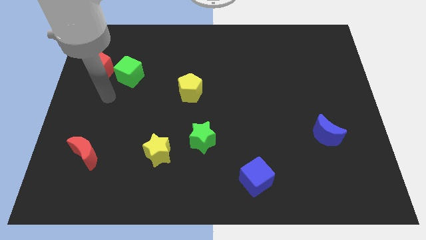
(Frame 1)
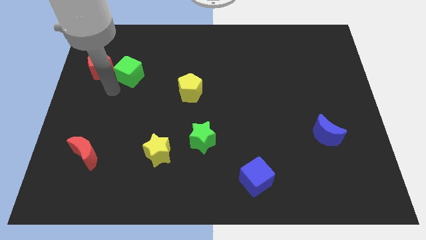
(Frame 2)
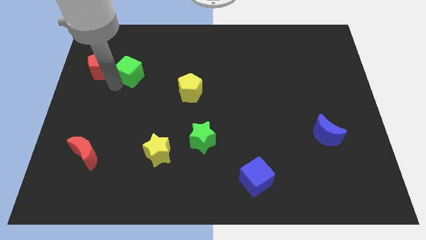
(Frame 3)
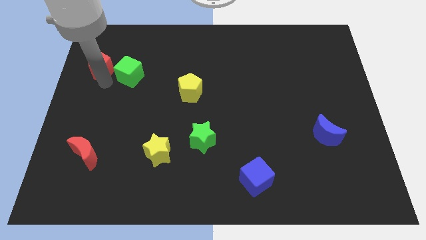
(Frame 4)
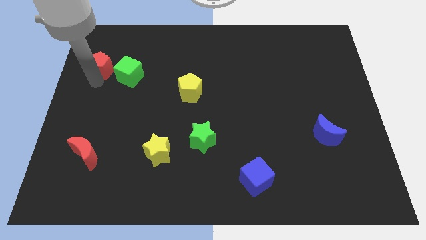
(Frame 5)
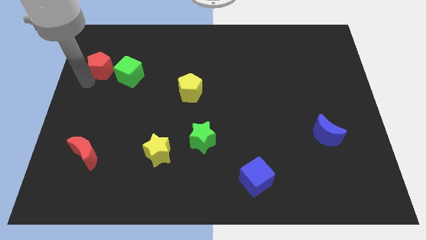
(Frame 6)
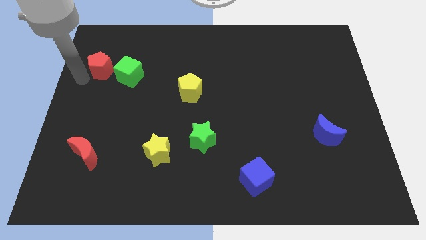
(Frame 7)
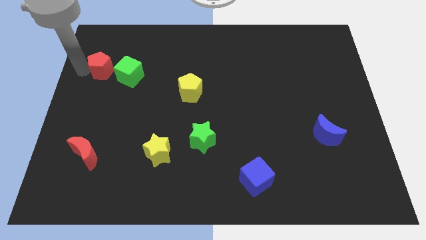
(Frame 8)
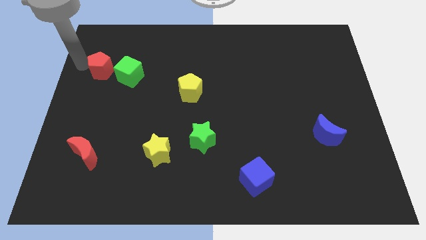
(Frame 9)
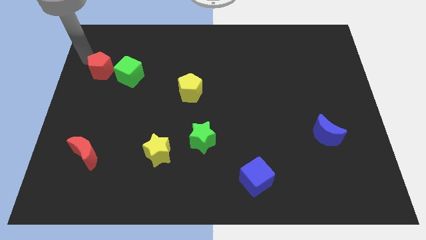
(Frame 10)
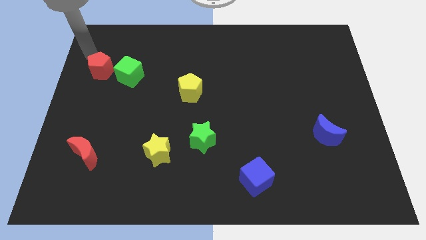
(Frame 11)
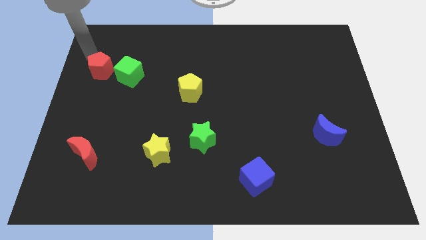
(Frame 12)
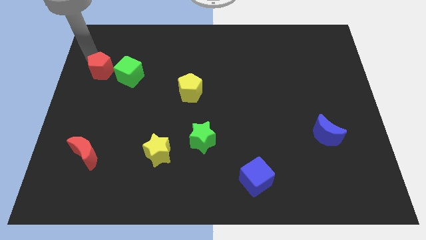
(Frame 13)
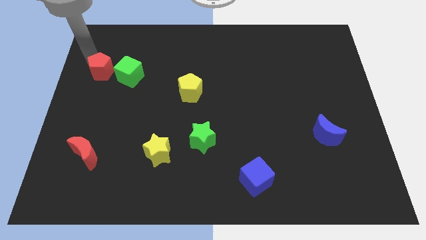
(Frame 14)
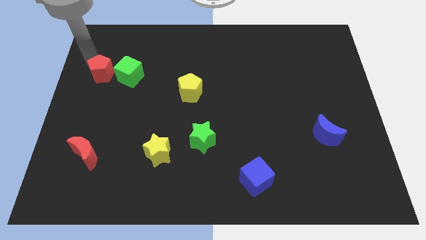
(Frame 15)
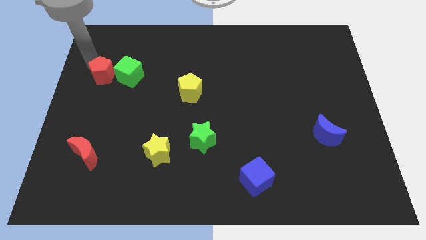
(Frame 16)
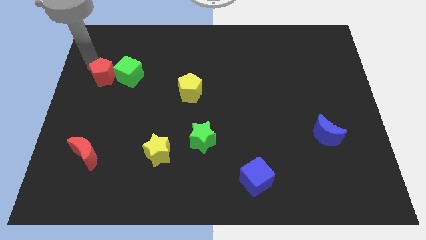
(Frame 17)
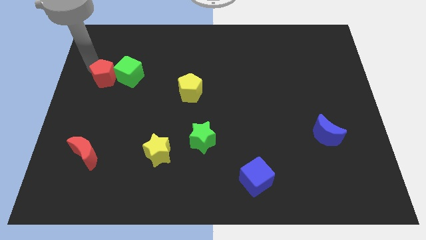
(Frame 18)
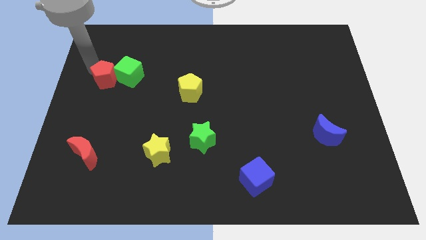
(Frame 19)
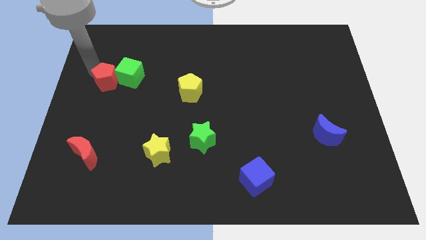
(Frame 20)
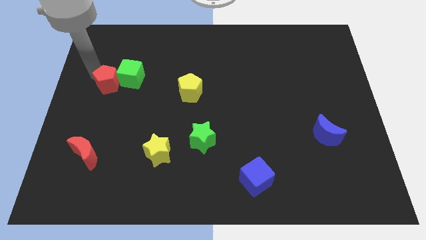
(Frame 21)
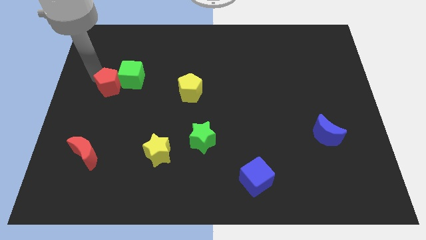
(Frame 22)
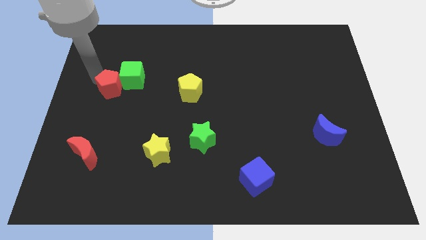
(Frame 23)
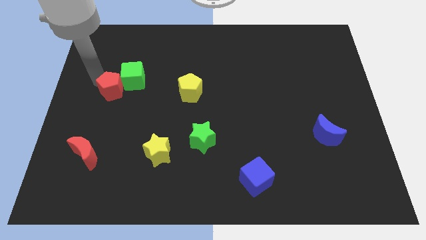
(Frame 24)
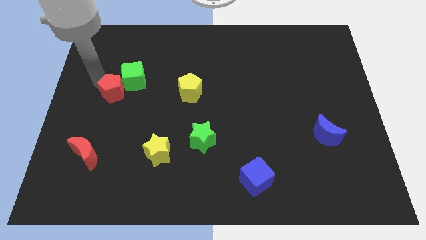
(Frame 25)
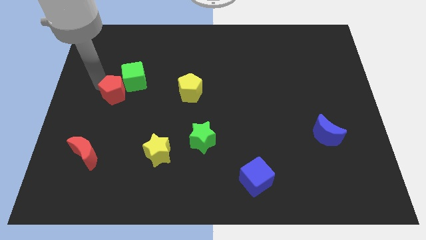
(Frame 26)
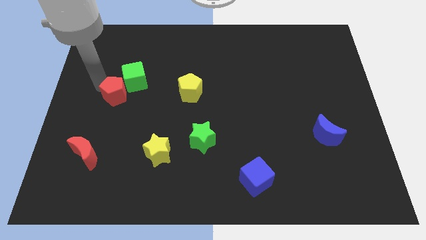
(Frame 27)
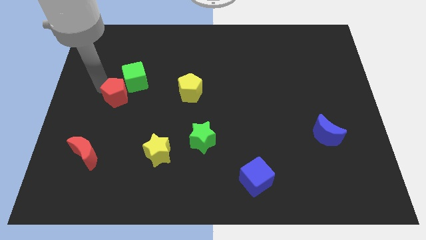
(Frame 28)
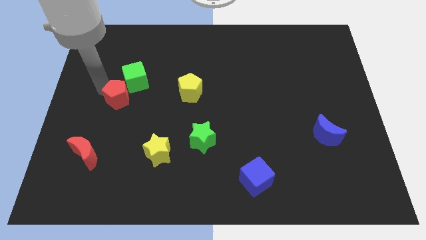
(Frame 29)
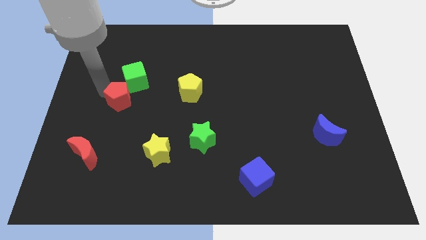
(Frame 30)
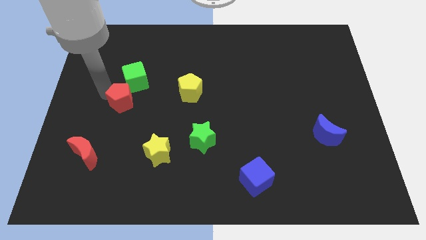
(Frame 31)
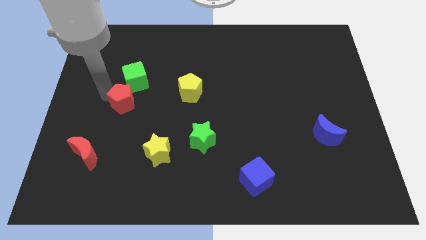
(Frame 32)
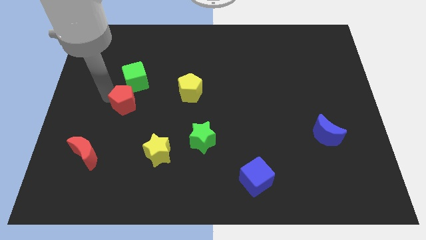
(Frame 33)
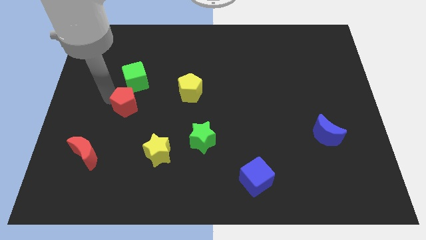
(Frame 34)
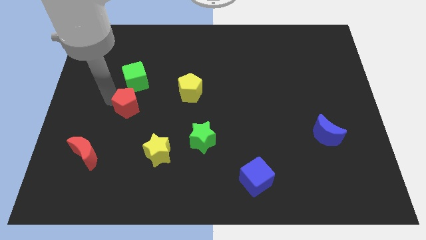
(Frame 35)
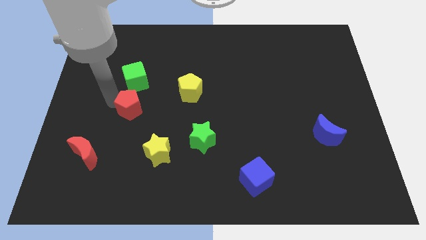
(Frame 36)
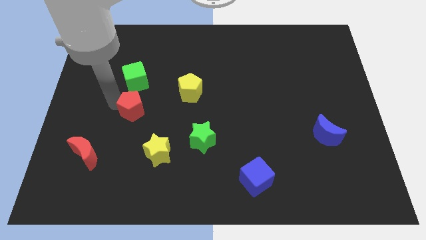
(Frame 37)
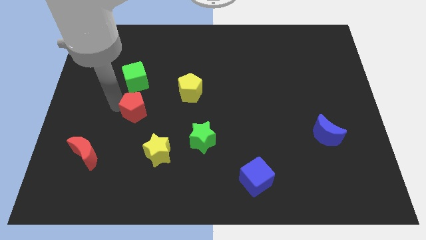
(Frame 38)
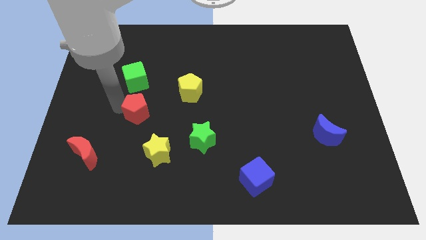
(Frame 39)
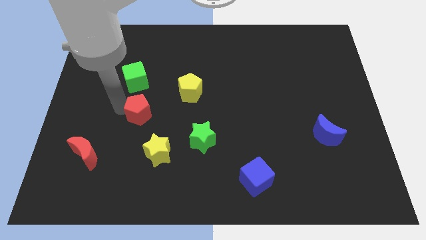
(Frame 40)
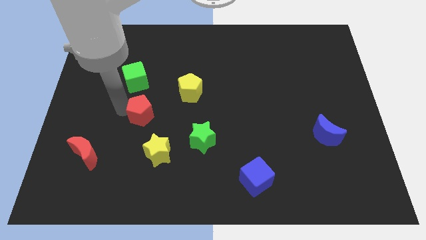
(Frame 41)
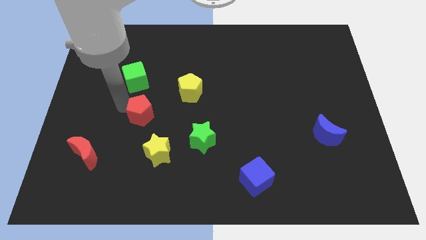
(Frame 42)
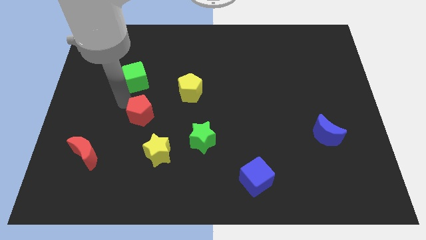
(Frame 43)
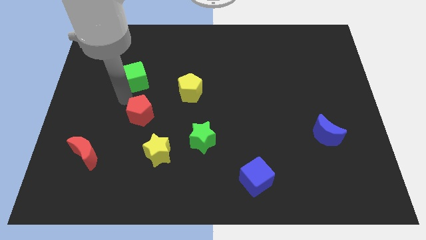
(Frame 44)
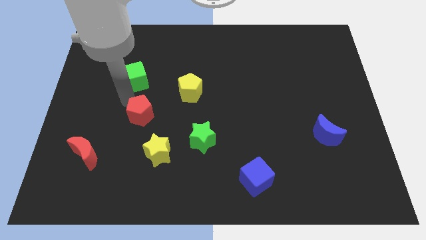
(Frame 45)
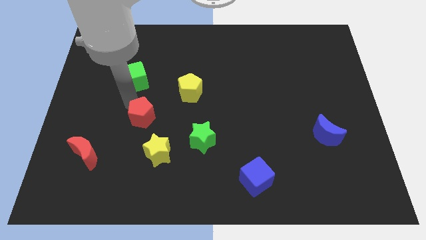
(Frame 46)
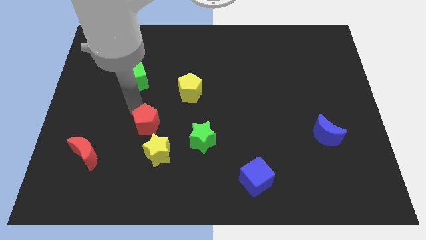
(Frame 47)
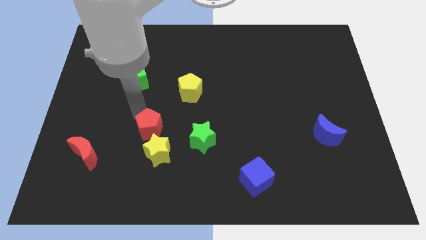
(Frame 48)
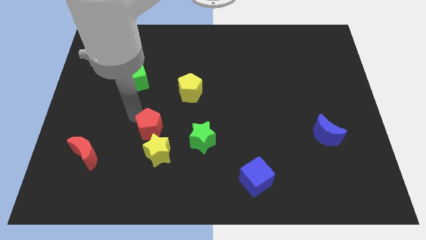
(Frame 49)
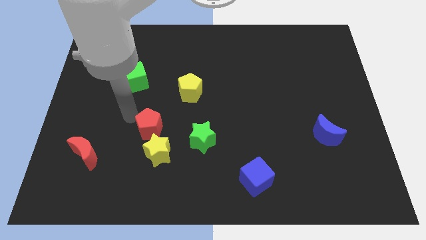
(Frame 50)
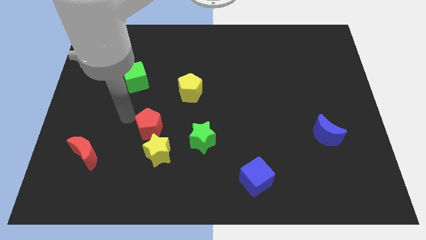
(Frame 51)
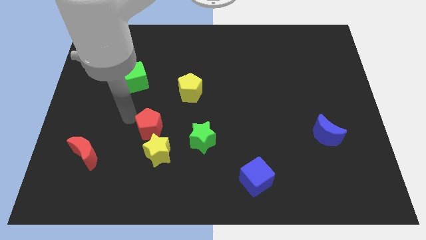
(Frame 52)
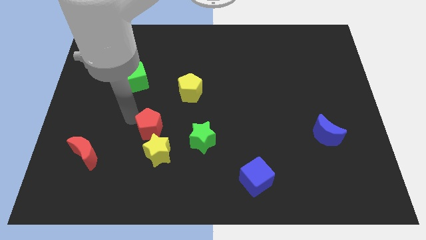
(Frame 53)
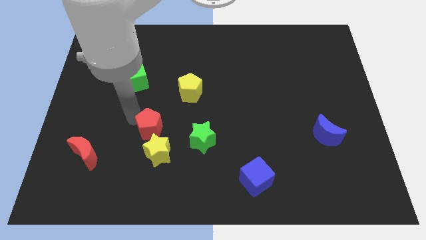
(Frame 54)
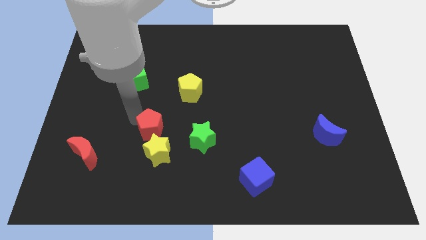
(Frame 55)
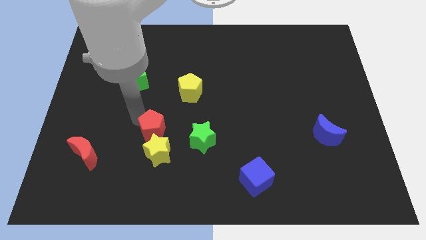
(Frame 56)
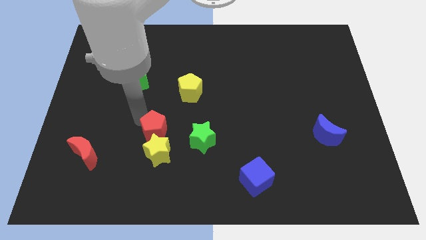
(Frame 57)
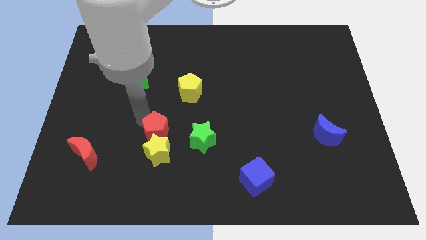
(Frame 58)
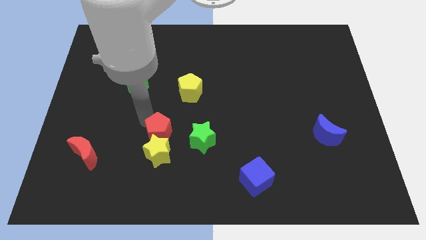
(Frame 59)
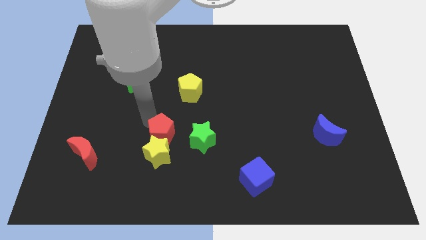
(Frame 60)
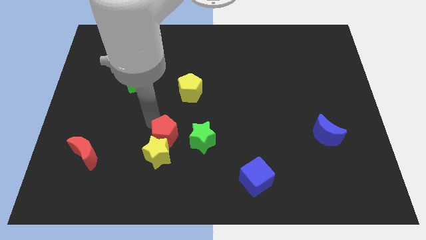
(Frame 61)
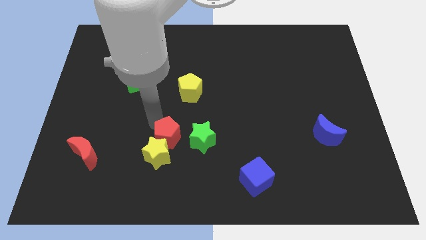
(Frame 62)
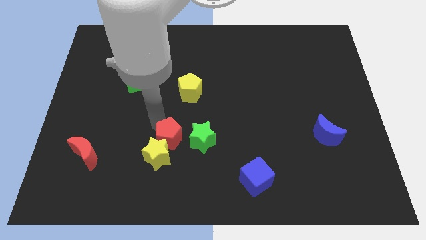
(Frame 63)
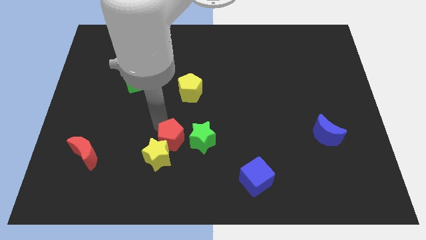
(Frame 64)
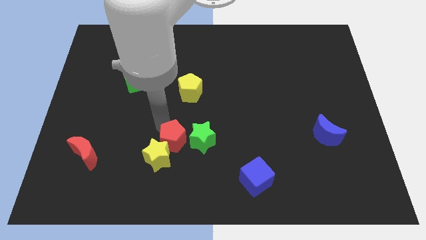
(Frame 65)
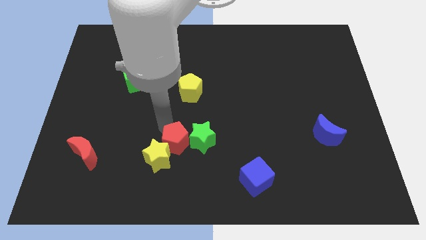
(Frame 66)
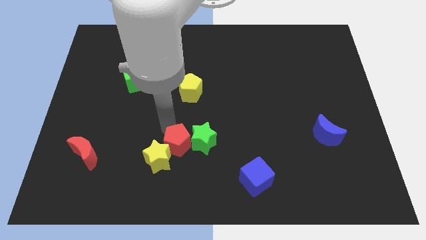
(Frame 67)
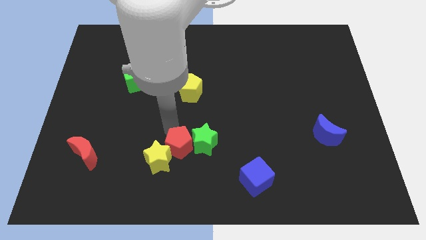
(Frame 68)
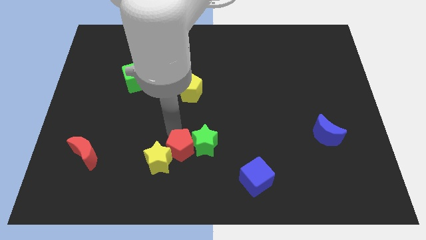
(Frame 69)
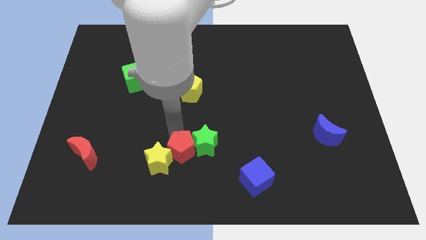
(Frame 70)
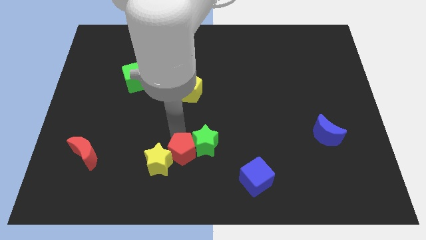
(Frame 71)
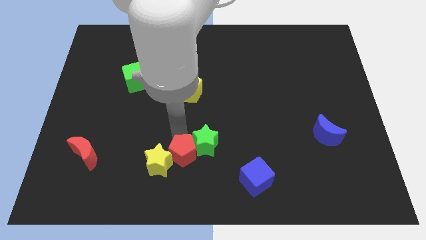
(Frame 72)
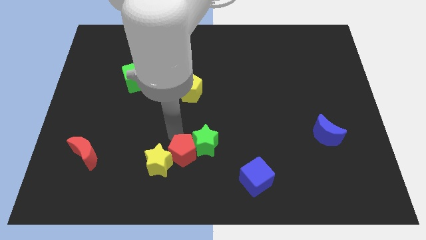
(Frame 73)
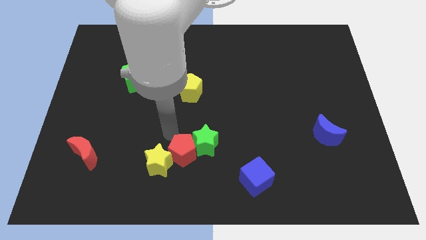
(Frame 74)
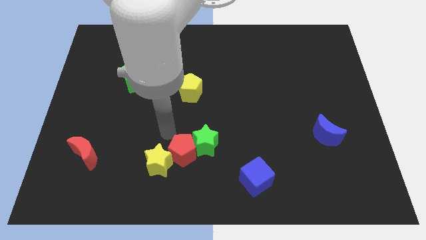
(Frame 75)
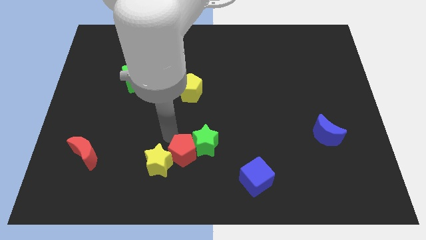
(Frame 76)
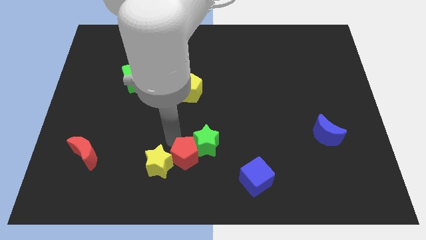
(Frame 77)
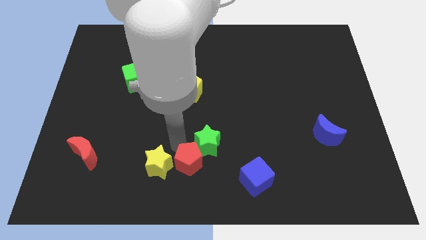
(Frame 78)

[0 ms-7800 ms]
put the red pentagon to the bottom side
